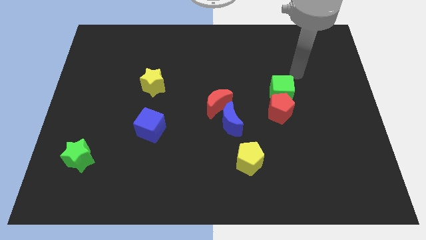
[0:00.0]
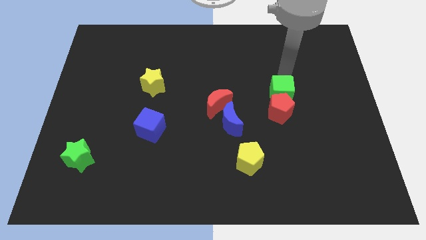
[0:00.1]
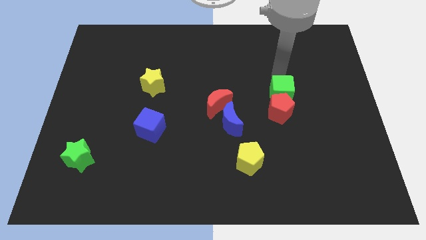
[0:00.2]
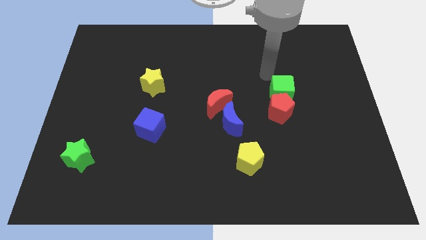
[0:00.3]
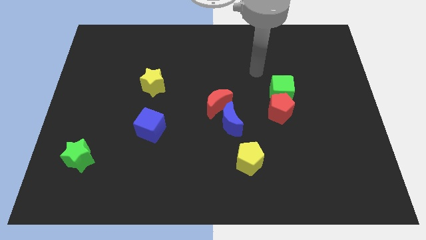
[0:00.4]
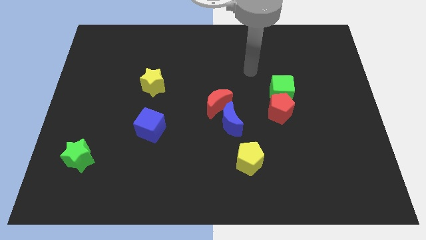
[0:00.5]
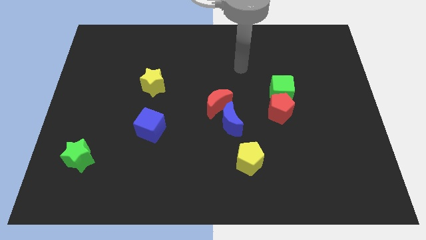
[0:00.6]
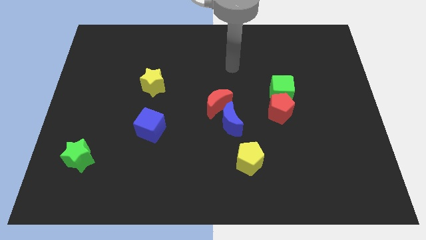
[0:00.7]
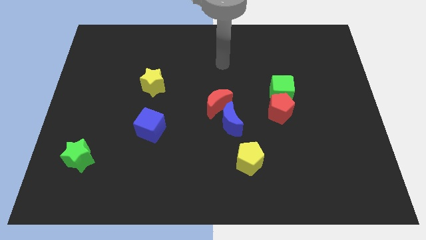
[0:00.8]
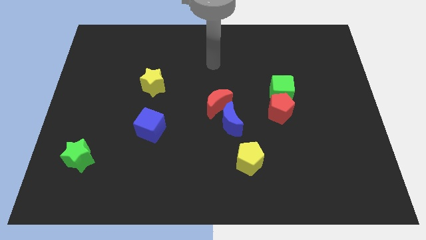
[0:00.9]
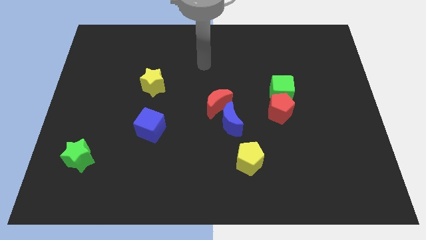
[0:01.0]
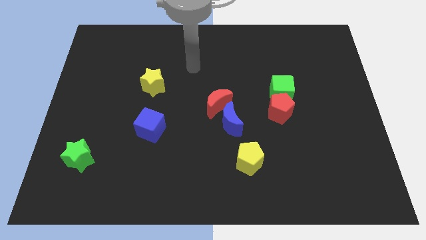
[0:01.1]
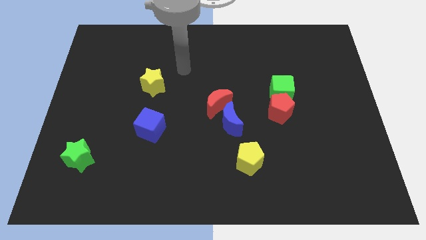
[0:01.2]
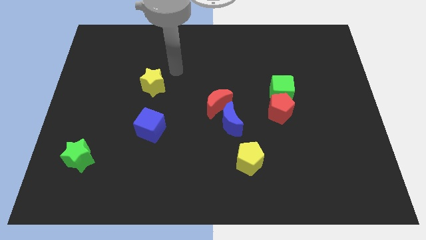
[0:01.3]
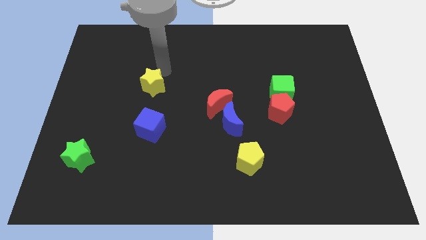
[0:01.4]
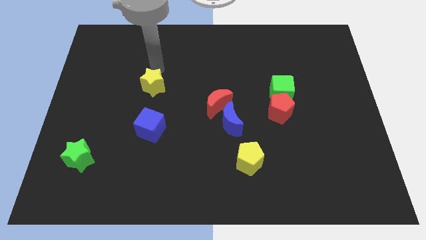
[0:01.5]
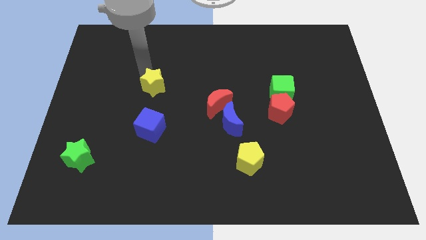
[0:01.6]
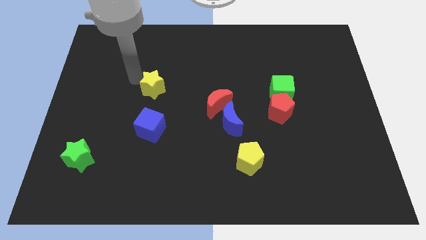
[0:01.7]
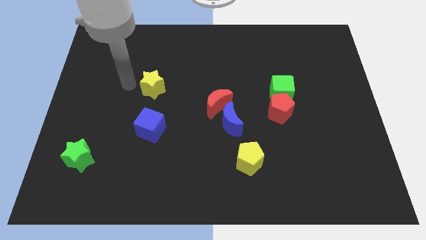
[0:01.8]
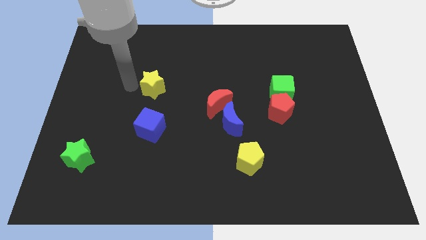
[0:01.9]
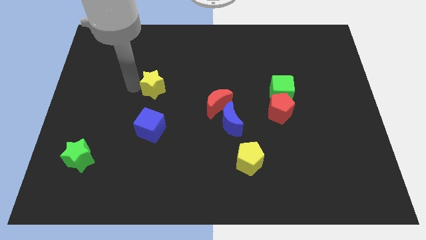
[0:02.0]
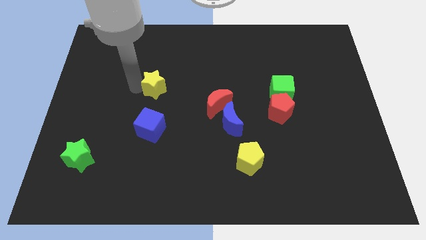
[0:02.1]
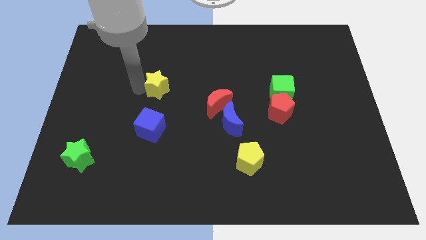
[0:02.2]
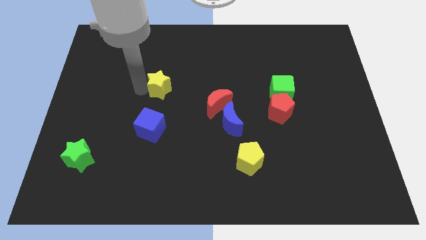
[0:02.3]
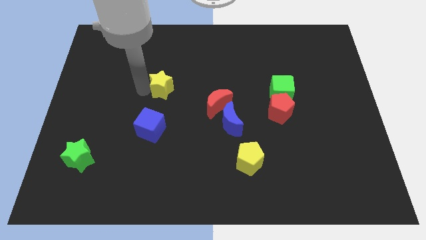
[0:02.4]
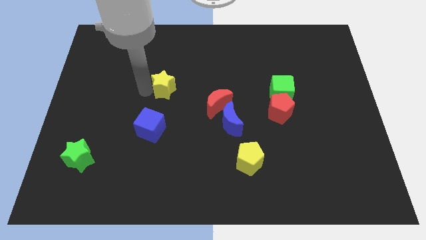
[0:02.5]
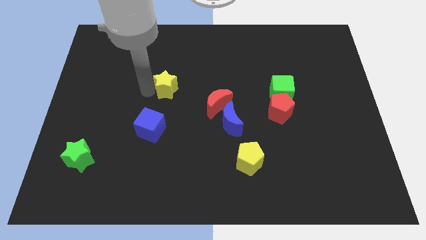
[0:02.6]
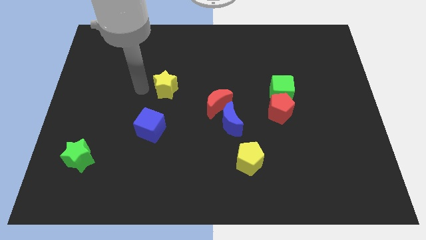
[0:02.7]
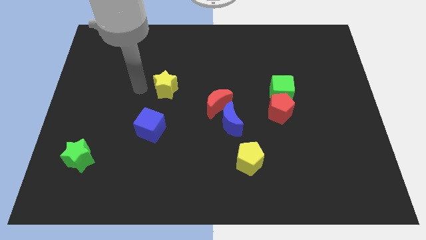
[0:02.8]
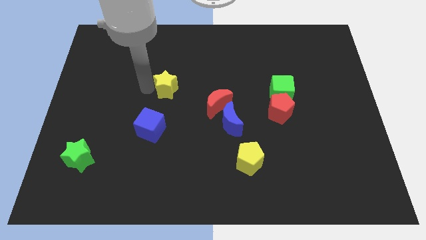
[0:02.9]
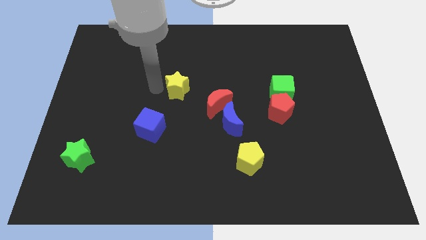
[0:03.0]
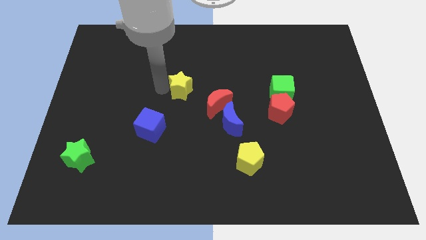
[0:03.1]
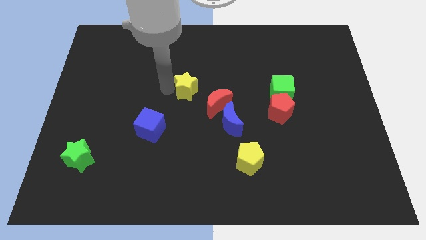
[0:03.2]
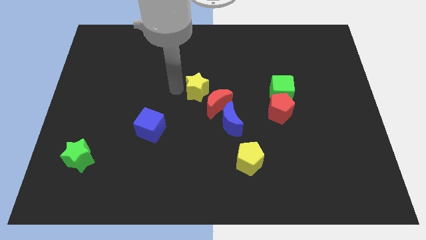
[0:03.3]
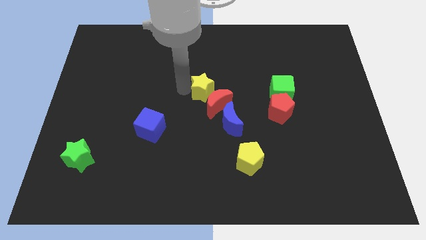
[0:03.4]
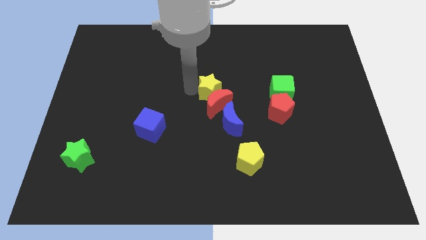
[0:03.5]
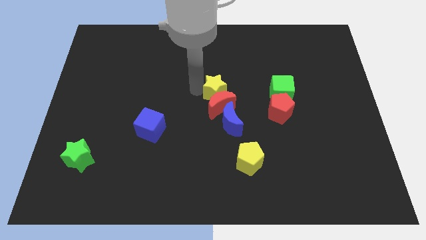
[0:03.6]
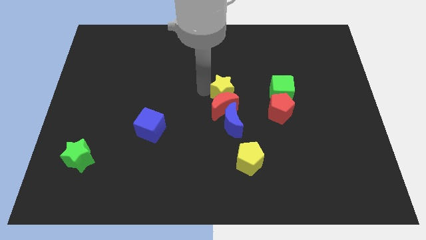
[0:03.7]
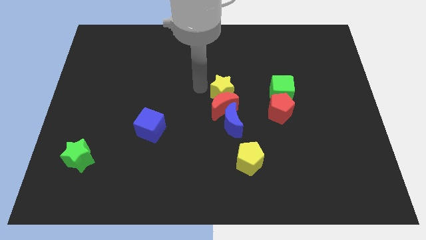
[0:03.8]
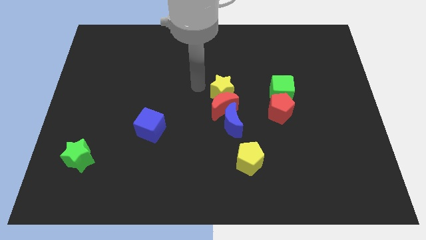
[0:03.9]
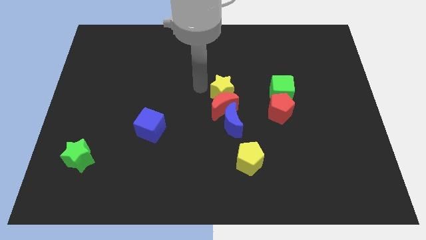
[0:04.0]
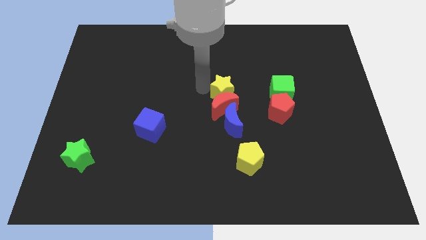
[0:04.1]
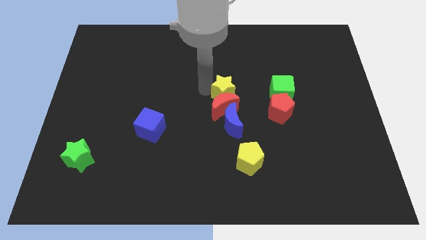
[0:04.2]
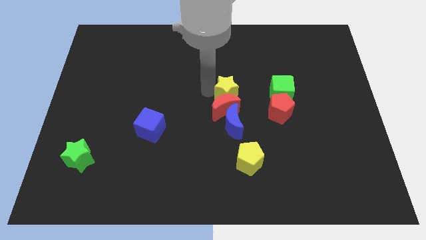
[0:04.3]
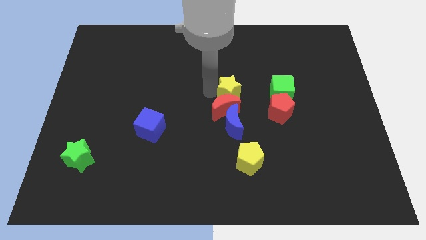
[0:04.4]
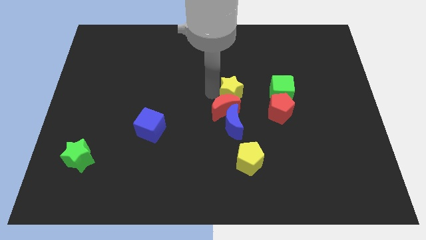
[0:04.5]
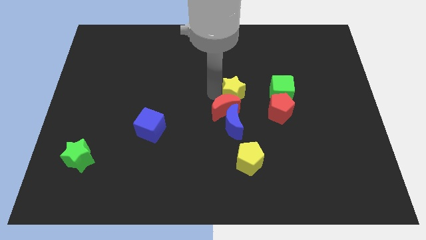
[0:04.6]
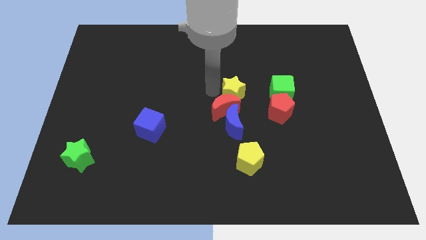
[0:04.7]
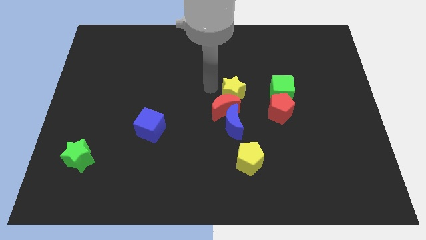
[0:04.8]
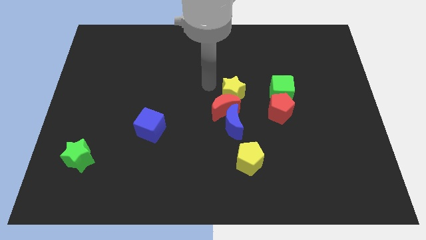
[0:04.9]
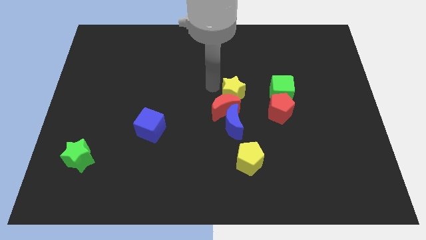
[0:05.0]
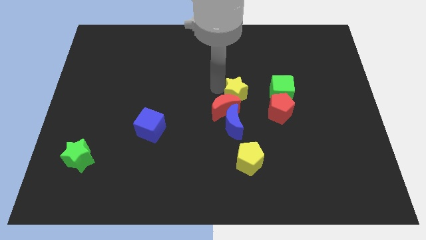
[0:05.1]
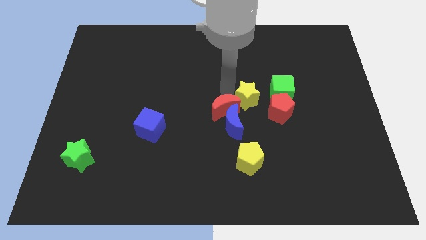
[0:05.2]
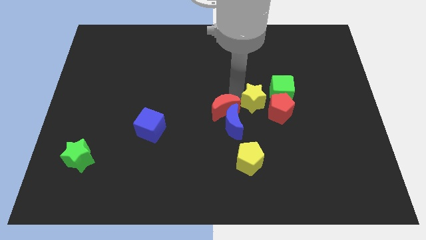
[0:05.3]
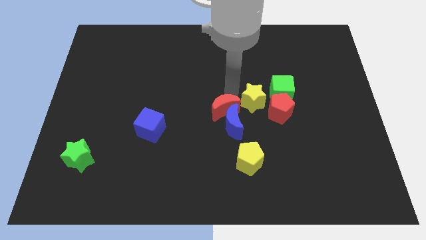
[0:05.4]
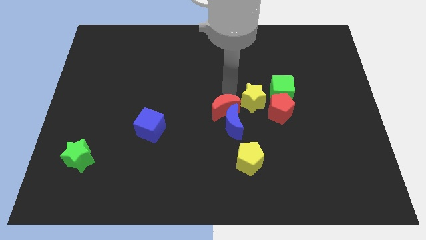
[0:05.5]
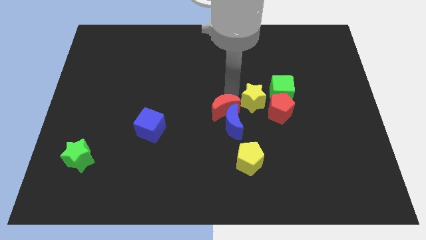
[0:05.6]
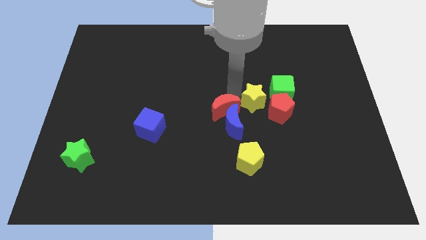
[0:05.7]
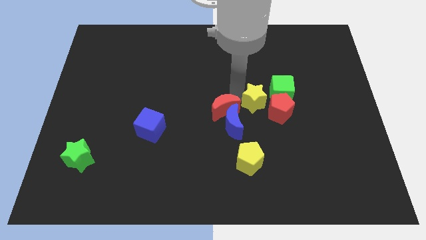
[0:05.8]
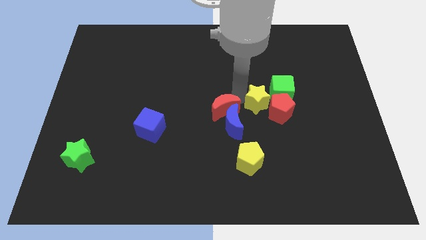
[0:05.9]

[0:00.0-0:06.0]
move the yellow star towards the red pentagon

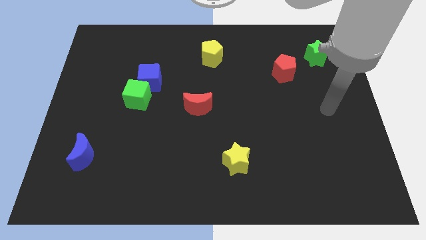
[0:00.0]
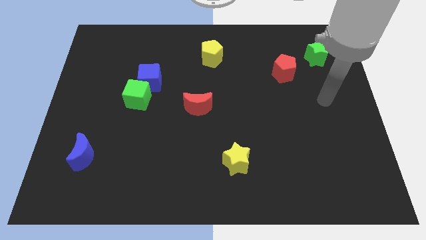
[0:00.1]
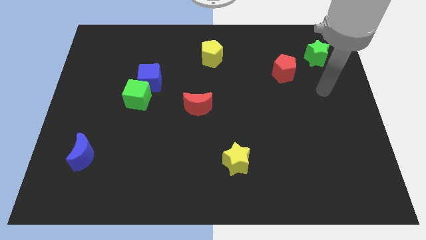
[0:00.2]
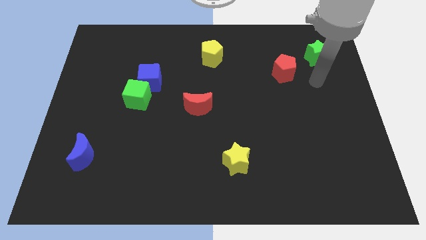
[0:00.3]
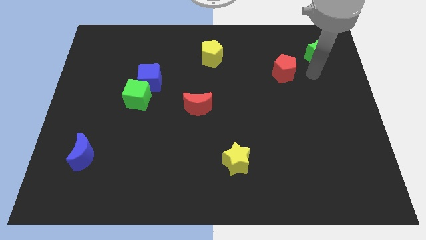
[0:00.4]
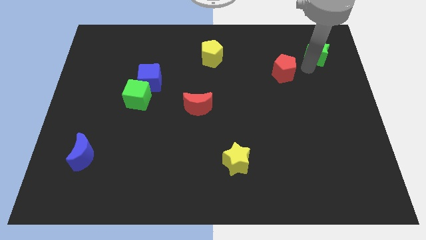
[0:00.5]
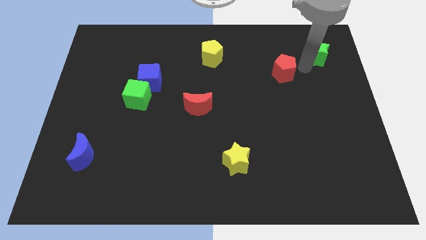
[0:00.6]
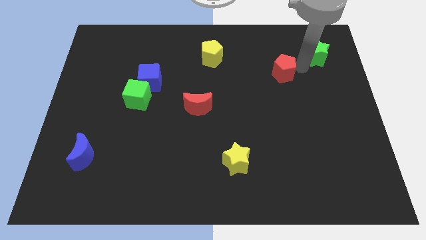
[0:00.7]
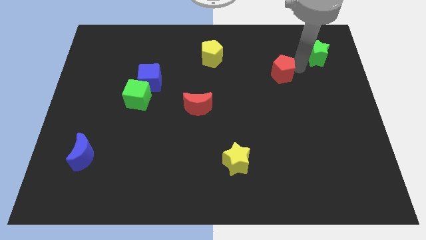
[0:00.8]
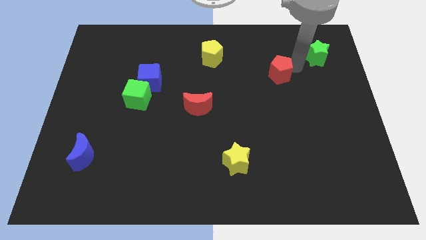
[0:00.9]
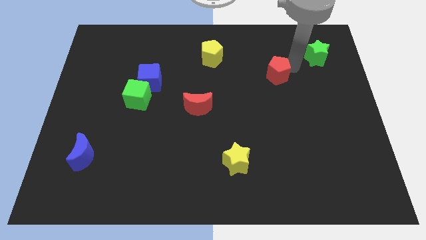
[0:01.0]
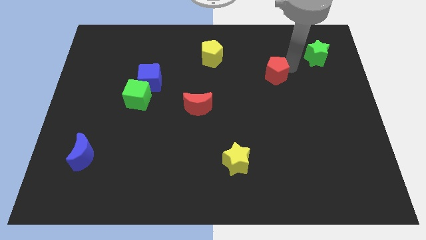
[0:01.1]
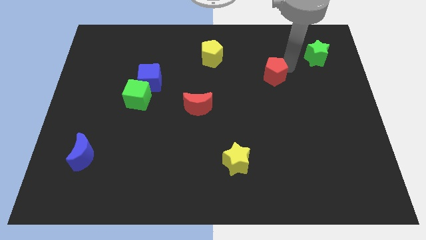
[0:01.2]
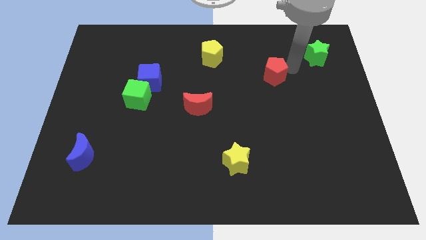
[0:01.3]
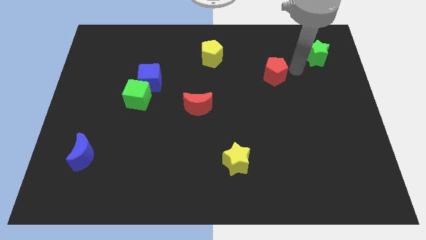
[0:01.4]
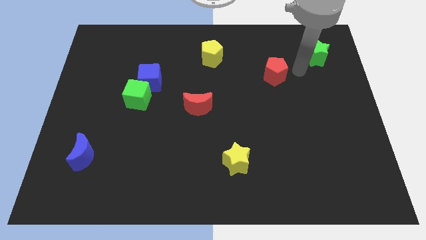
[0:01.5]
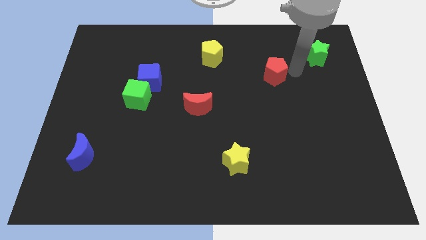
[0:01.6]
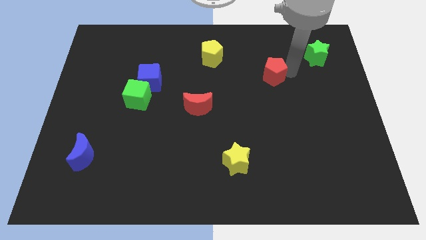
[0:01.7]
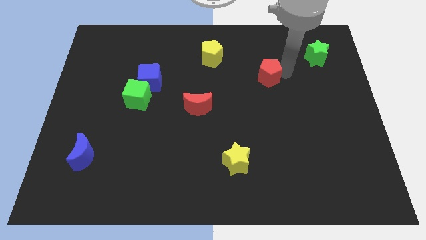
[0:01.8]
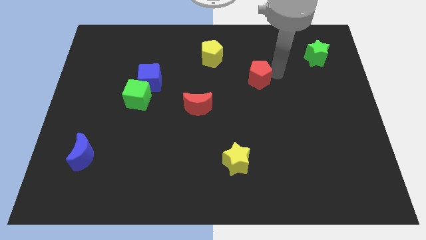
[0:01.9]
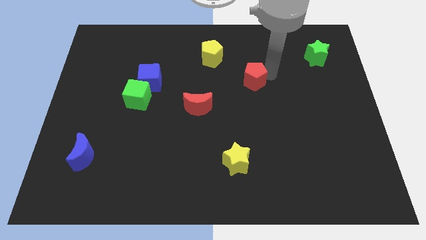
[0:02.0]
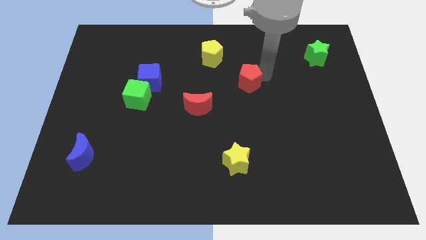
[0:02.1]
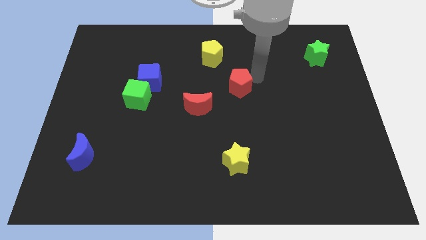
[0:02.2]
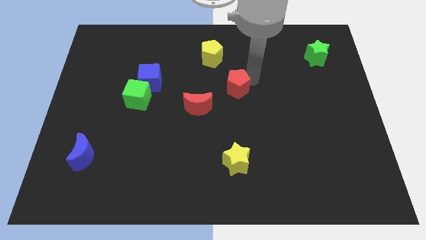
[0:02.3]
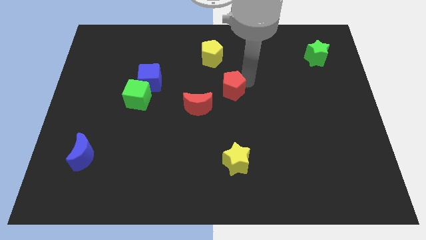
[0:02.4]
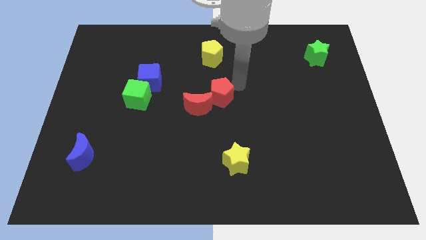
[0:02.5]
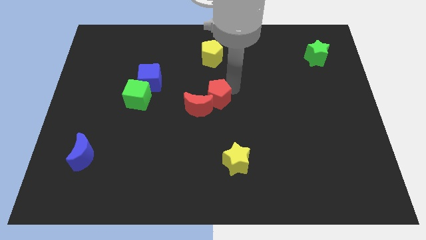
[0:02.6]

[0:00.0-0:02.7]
put the red pentagon towards the red moon
